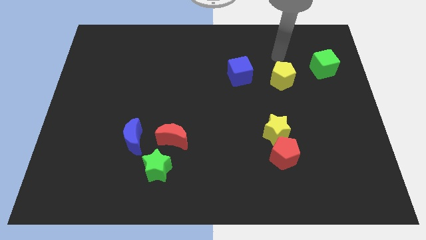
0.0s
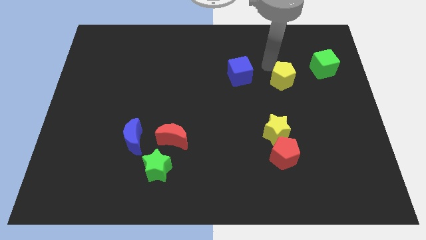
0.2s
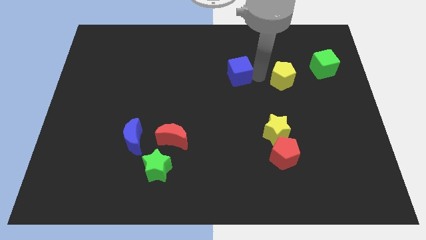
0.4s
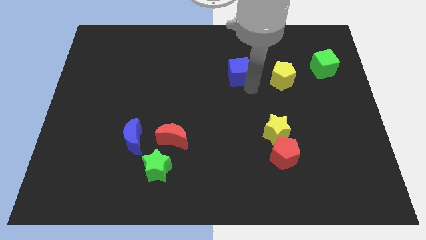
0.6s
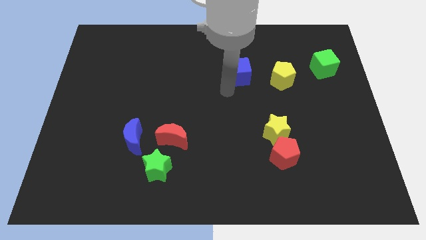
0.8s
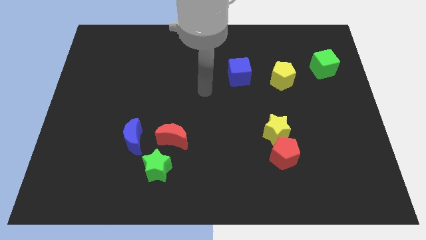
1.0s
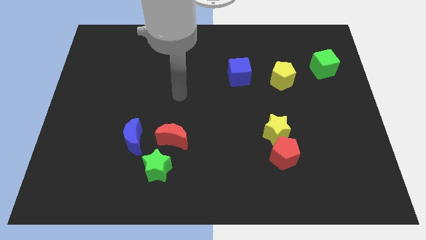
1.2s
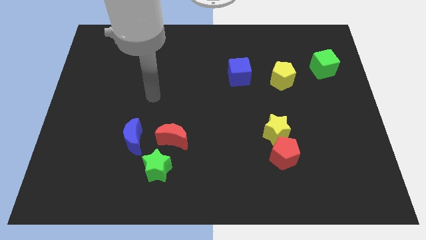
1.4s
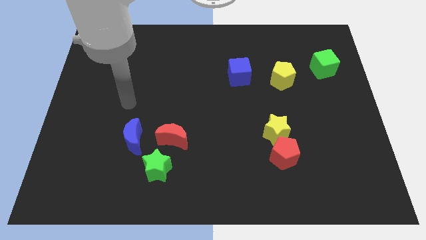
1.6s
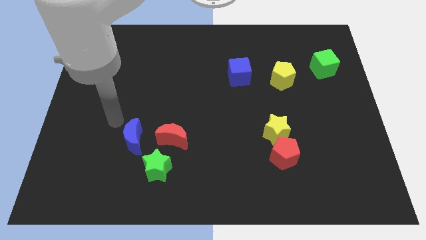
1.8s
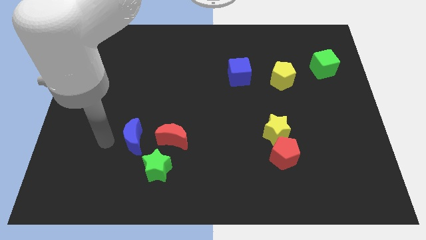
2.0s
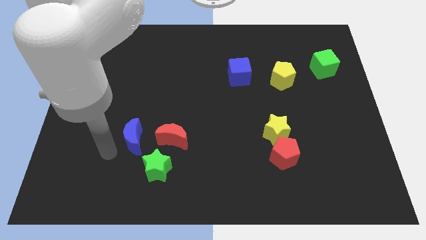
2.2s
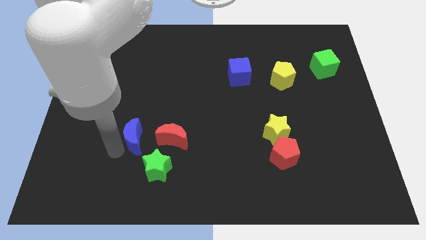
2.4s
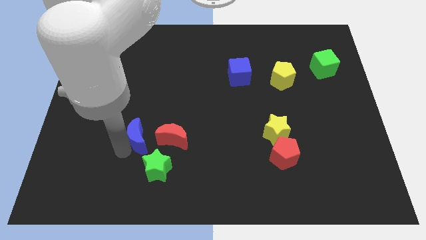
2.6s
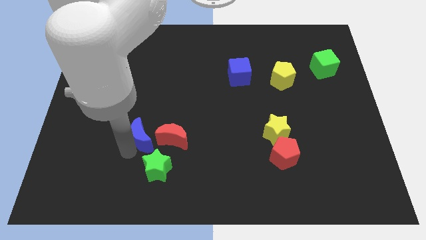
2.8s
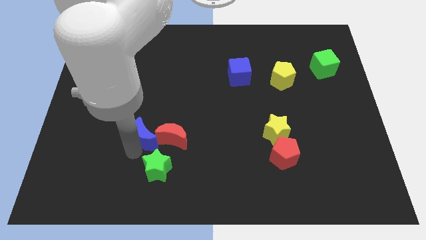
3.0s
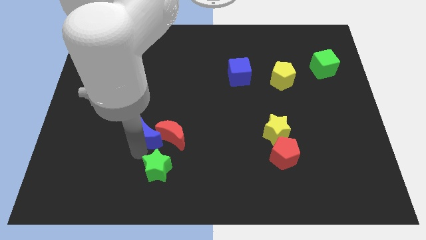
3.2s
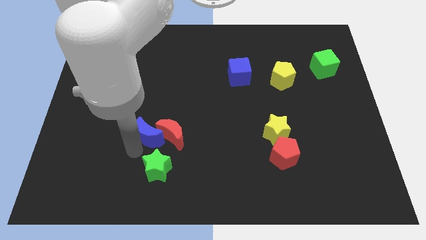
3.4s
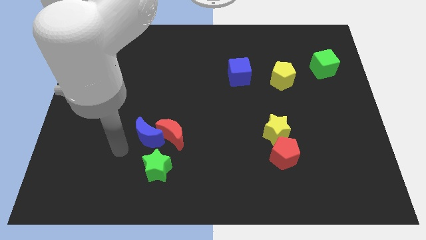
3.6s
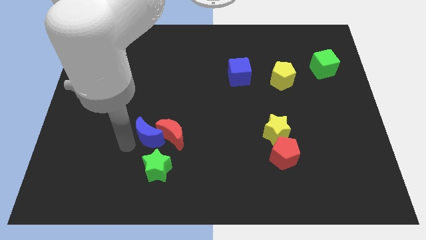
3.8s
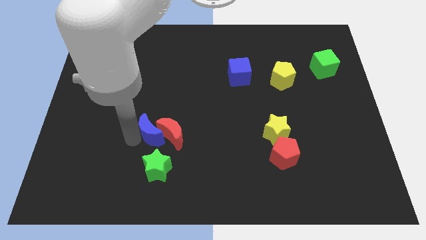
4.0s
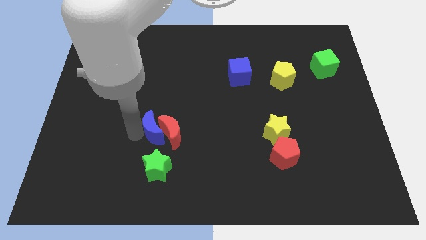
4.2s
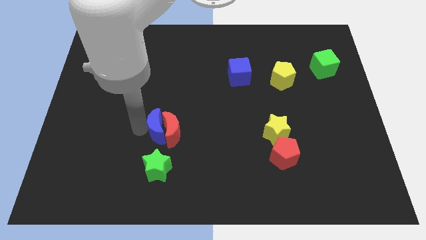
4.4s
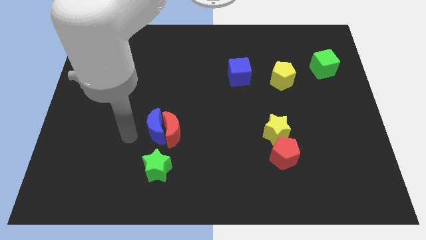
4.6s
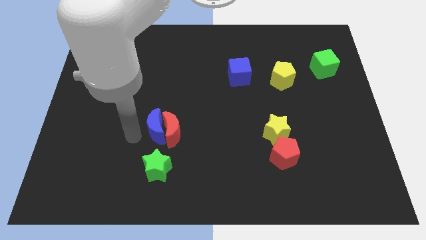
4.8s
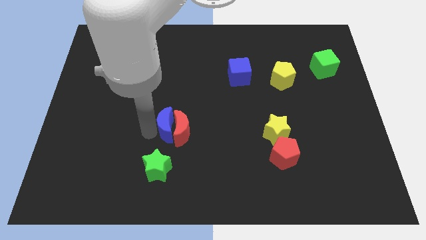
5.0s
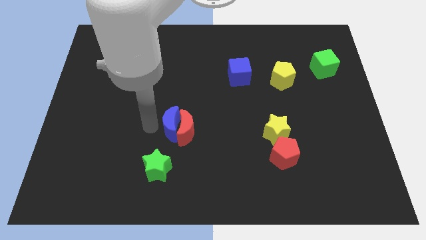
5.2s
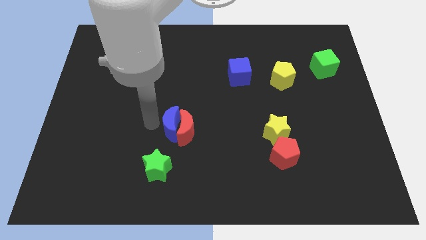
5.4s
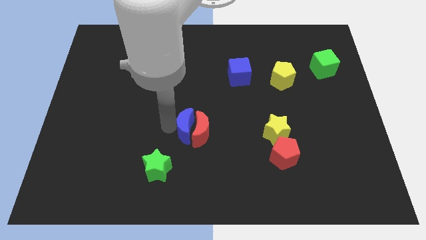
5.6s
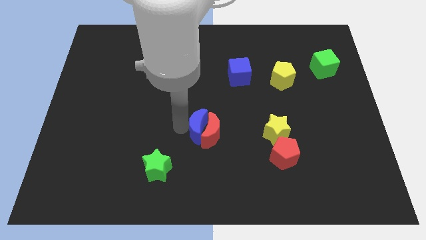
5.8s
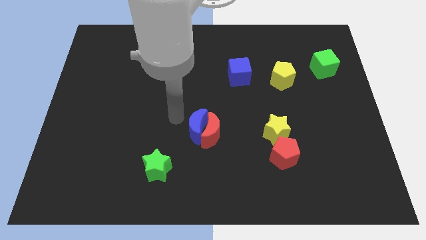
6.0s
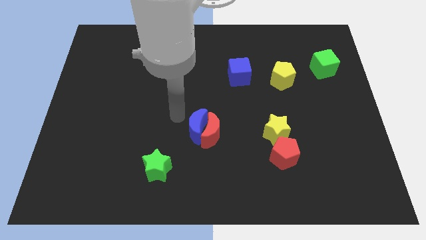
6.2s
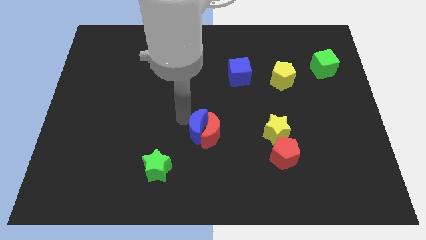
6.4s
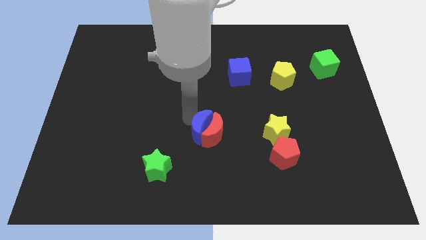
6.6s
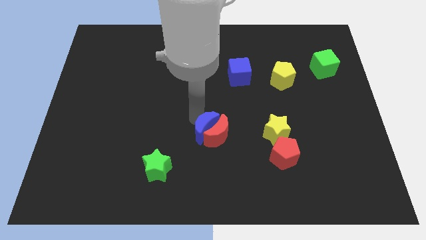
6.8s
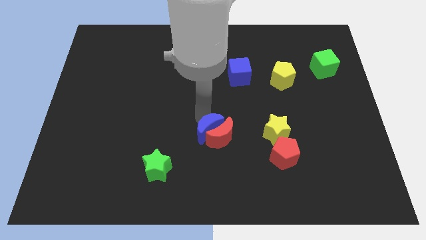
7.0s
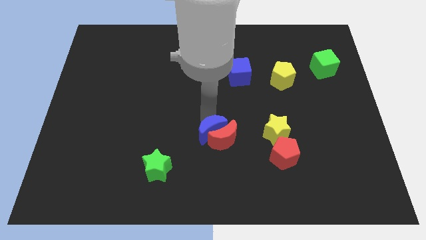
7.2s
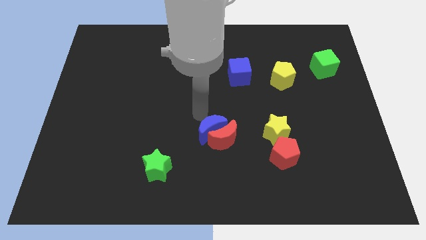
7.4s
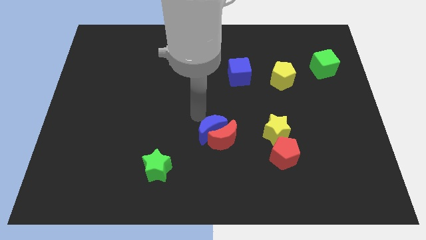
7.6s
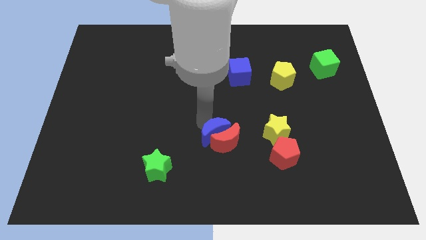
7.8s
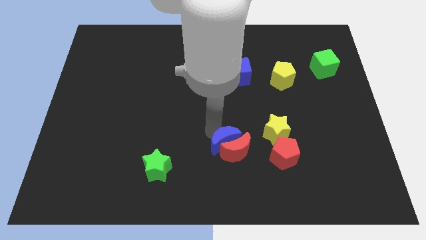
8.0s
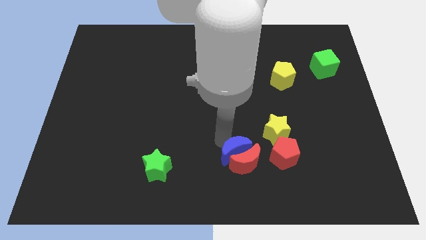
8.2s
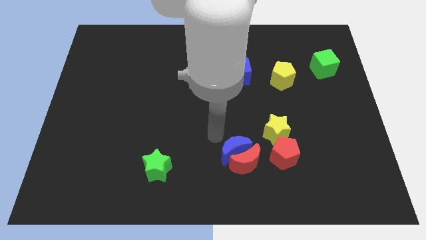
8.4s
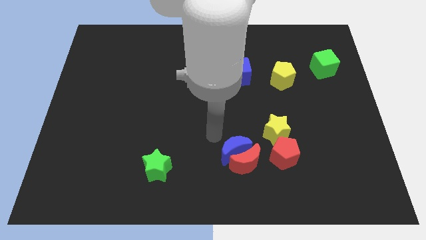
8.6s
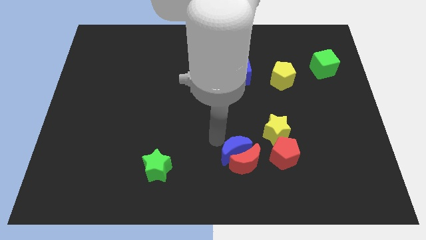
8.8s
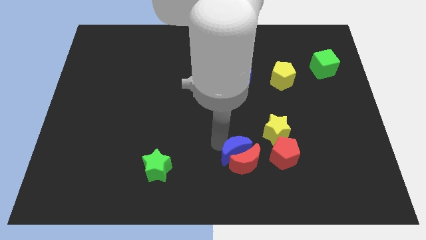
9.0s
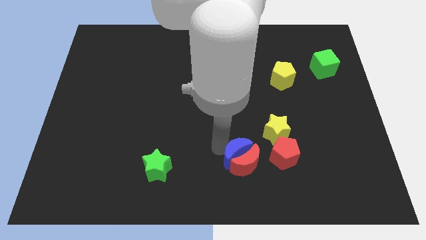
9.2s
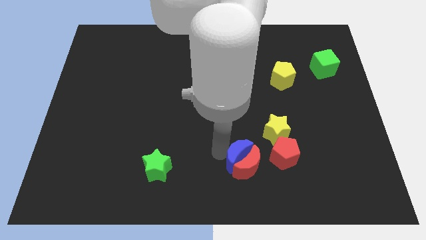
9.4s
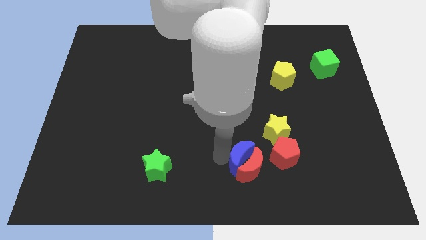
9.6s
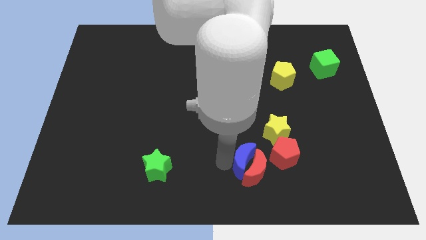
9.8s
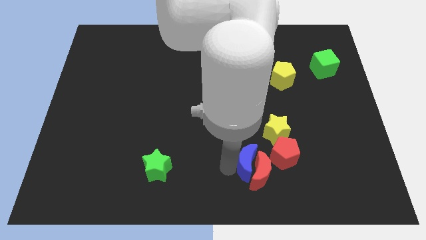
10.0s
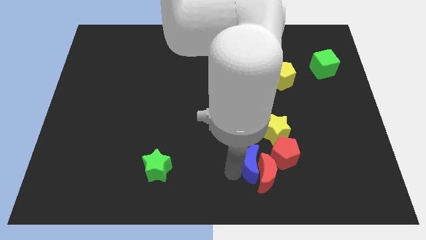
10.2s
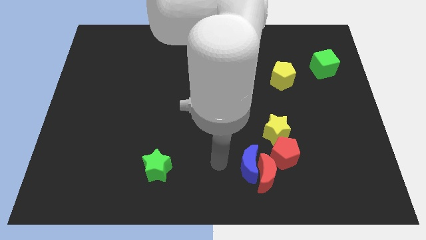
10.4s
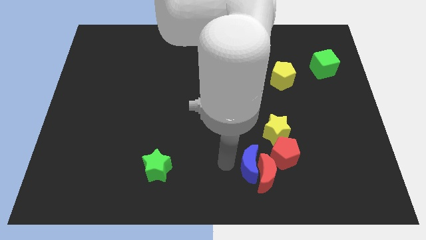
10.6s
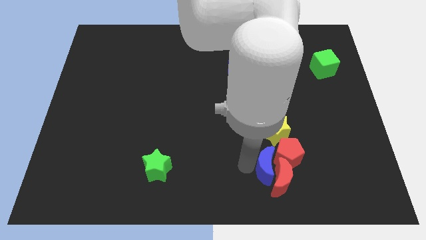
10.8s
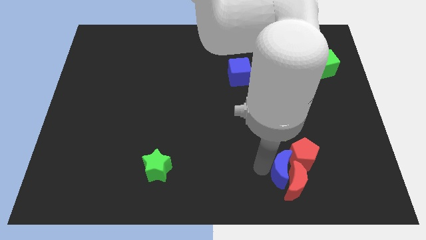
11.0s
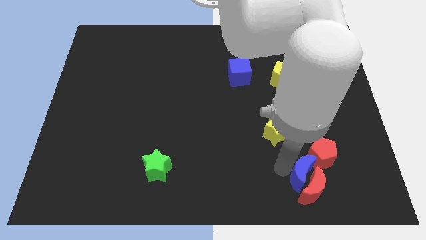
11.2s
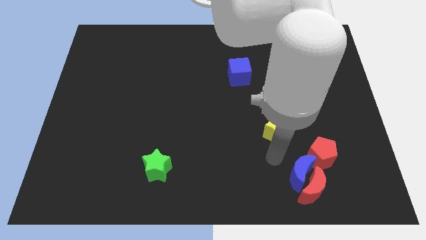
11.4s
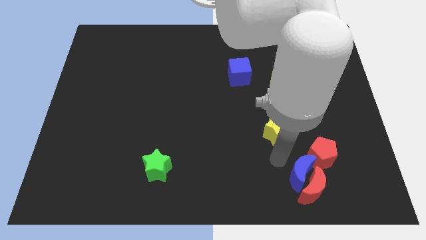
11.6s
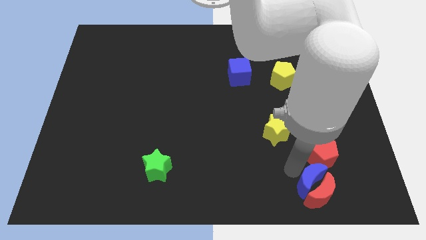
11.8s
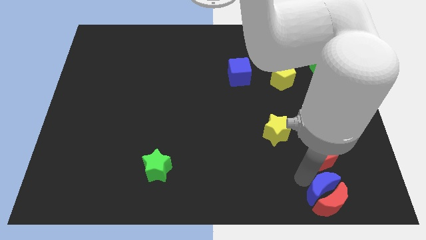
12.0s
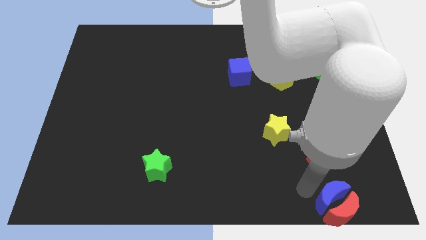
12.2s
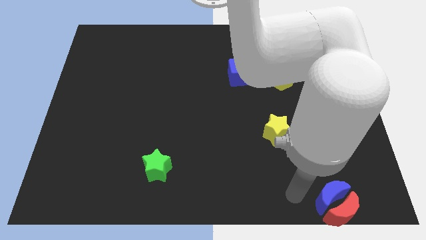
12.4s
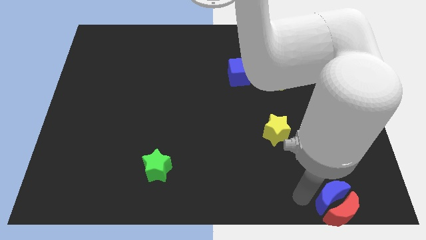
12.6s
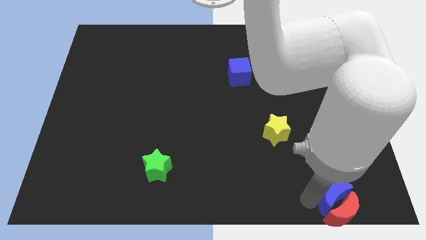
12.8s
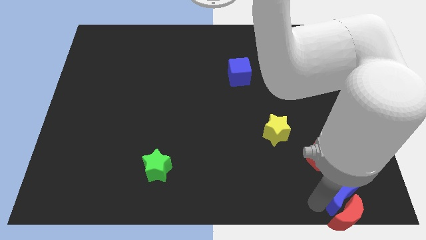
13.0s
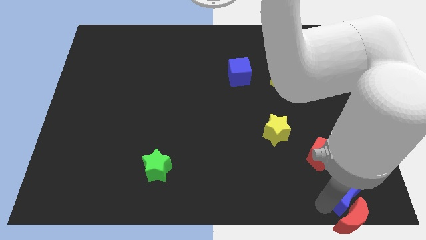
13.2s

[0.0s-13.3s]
push the blue moon to the bottom right
